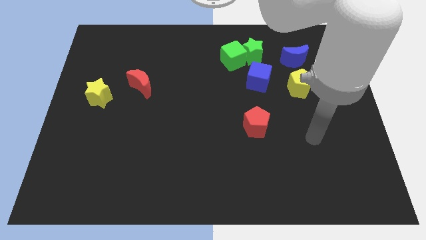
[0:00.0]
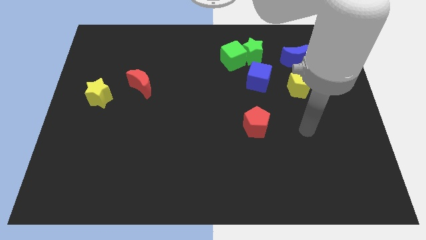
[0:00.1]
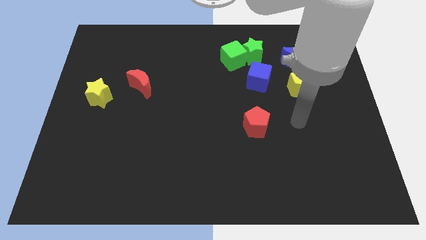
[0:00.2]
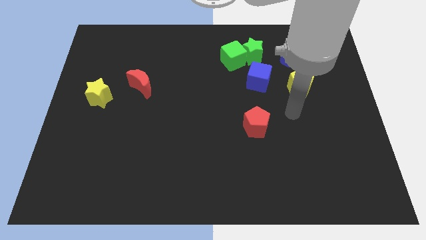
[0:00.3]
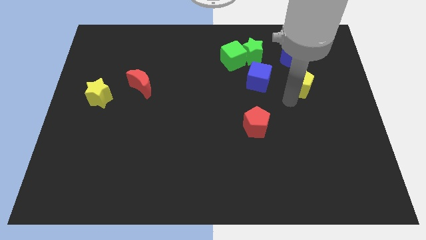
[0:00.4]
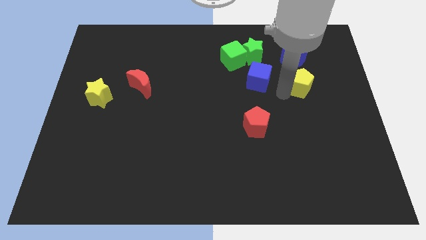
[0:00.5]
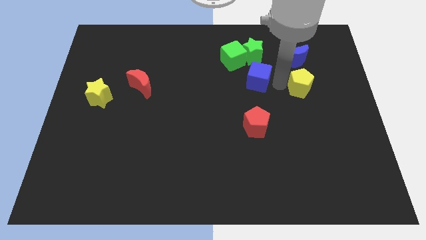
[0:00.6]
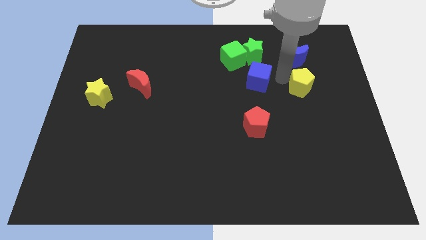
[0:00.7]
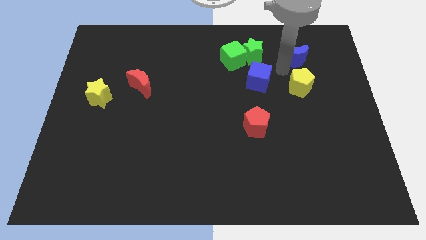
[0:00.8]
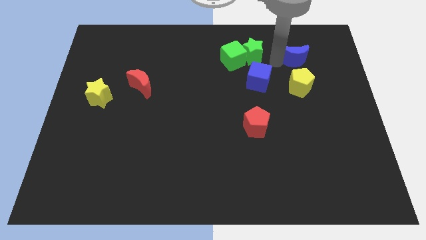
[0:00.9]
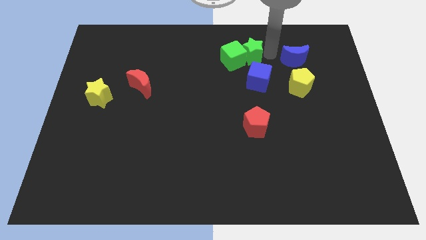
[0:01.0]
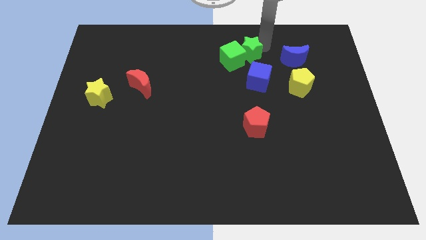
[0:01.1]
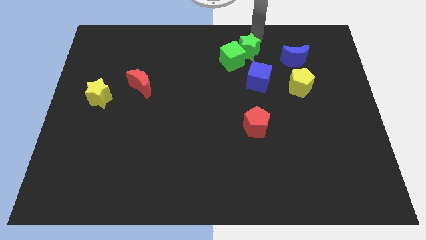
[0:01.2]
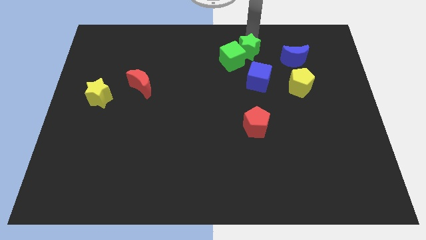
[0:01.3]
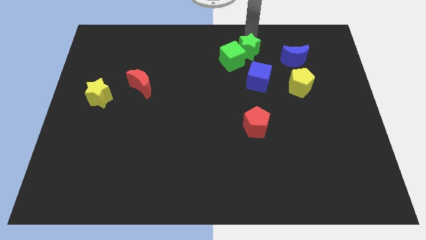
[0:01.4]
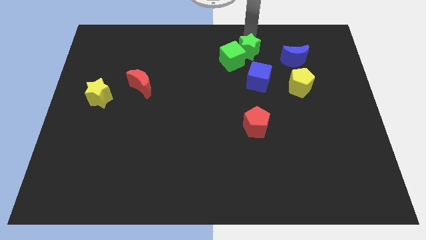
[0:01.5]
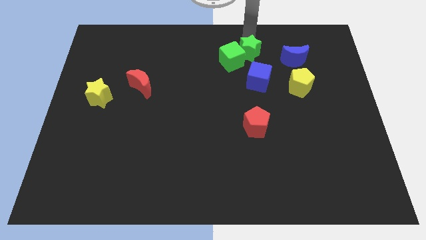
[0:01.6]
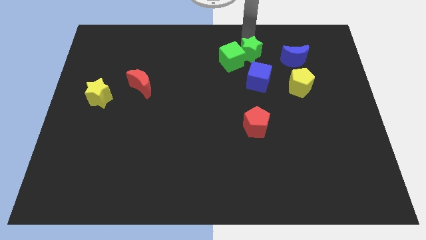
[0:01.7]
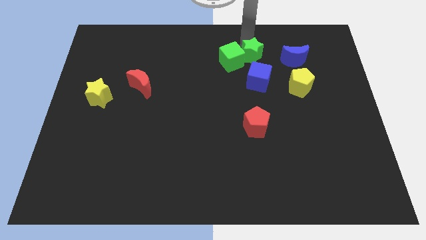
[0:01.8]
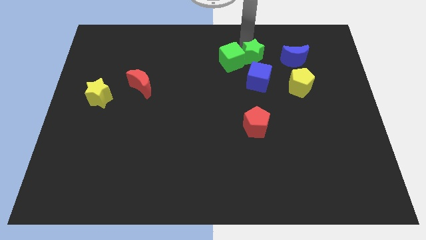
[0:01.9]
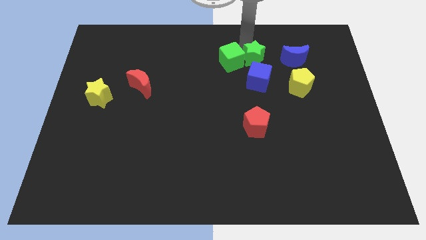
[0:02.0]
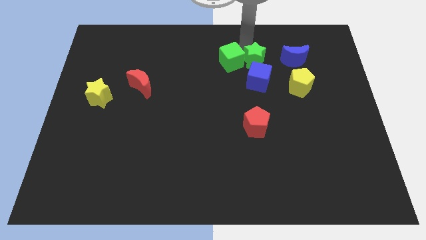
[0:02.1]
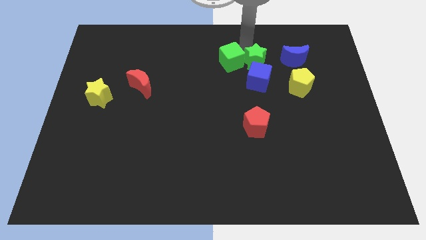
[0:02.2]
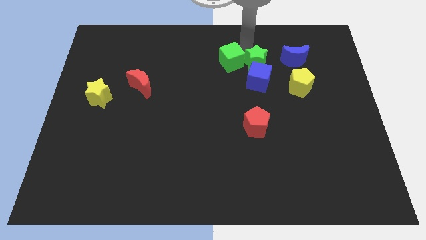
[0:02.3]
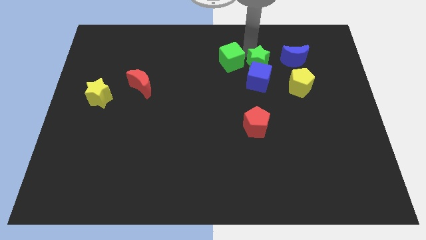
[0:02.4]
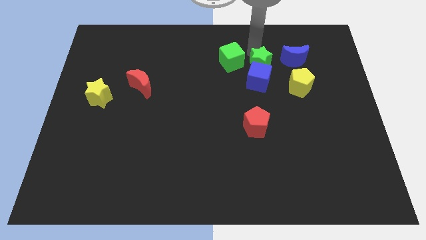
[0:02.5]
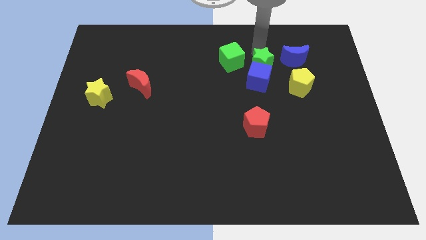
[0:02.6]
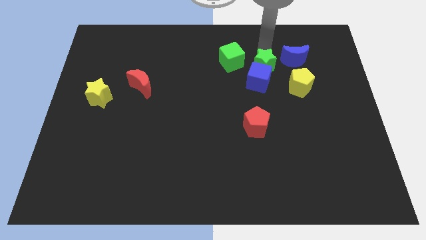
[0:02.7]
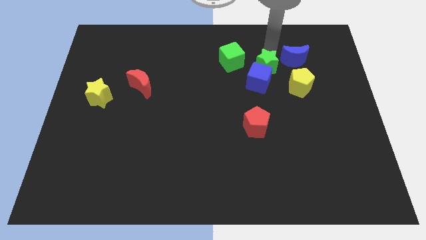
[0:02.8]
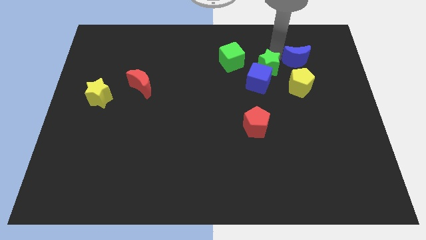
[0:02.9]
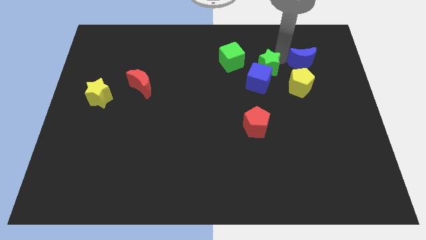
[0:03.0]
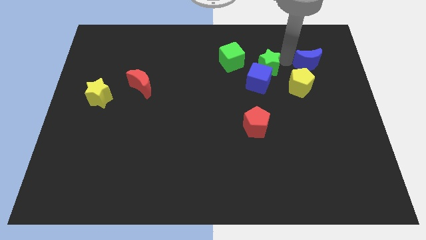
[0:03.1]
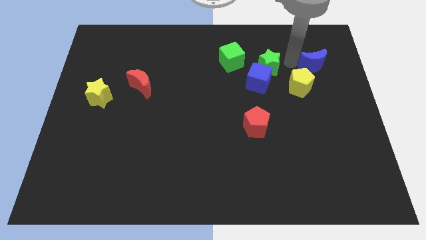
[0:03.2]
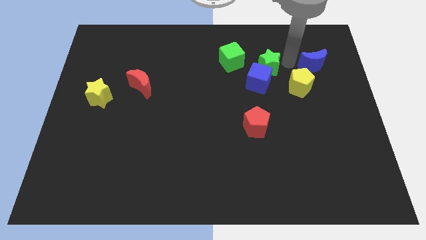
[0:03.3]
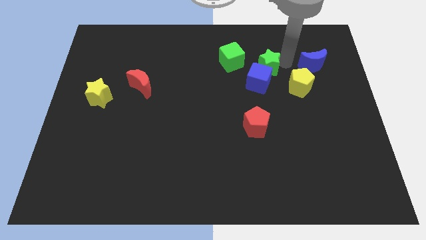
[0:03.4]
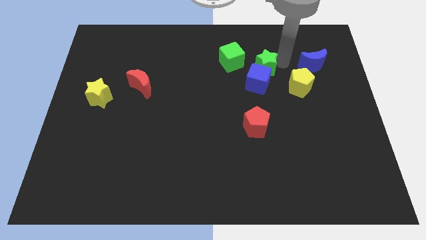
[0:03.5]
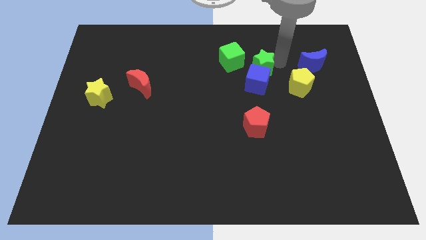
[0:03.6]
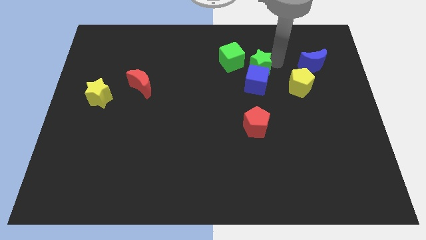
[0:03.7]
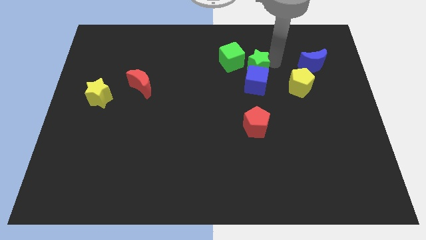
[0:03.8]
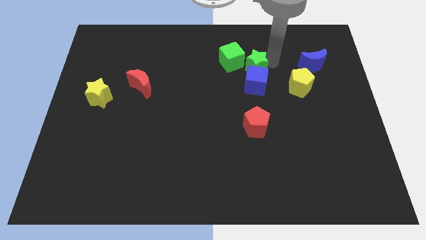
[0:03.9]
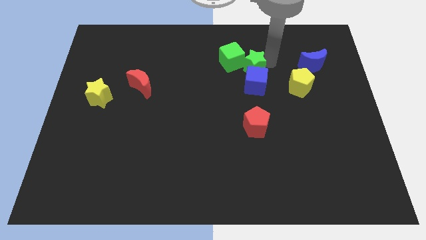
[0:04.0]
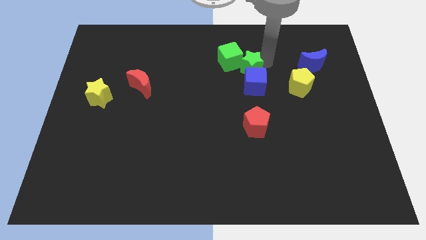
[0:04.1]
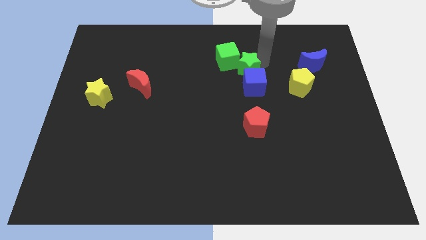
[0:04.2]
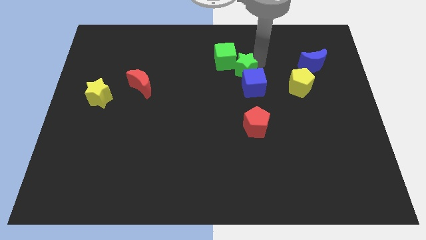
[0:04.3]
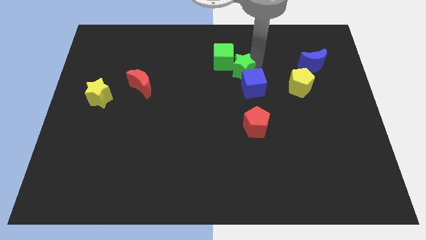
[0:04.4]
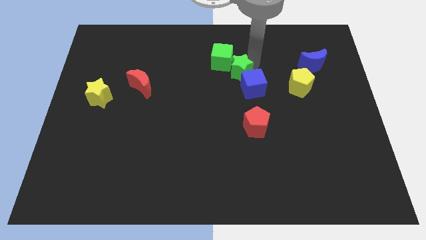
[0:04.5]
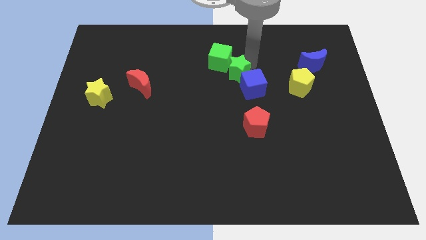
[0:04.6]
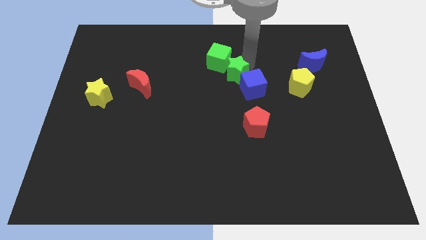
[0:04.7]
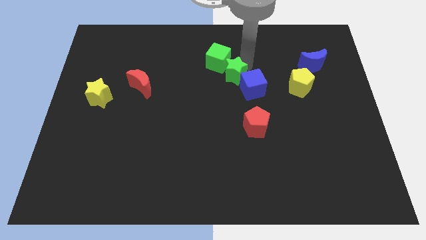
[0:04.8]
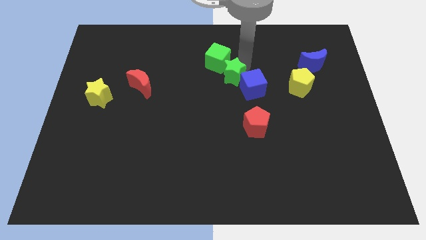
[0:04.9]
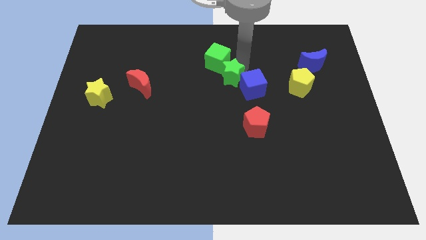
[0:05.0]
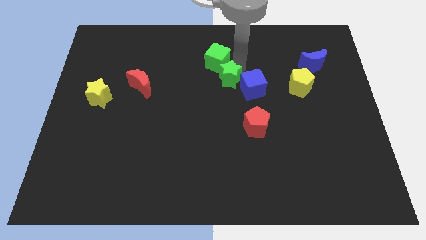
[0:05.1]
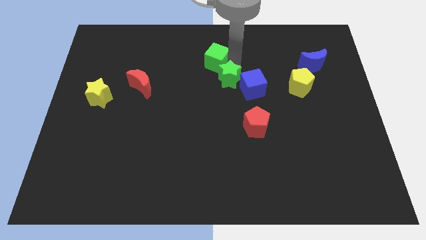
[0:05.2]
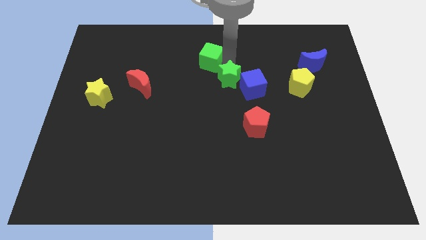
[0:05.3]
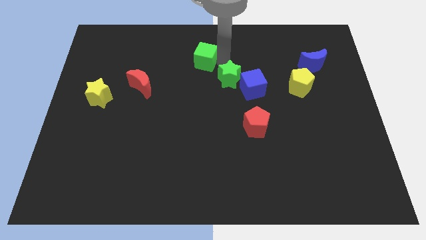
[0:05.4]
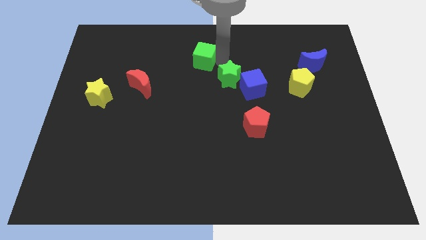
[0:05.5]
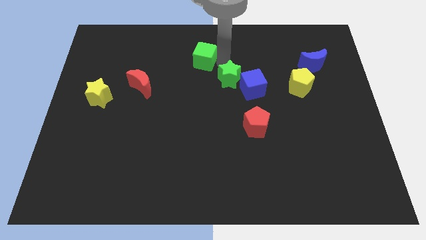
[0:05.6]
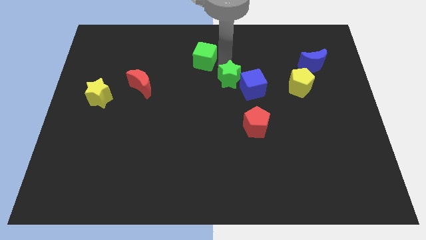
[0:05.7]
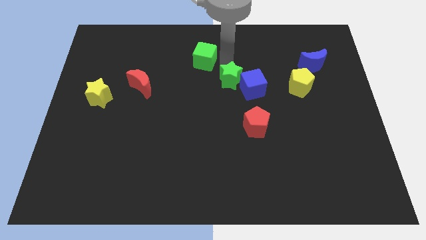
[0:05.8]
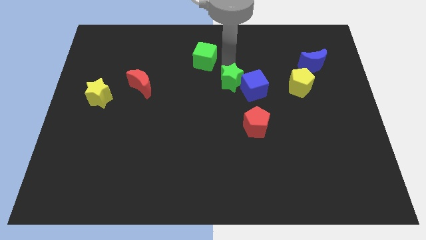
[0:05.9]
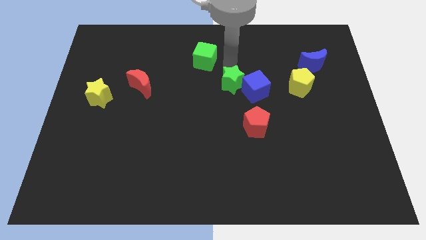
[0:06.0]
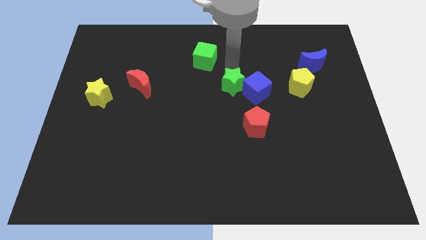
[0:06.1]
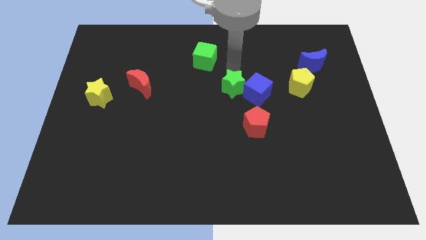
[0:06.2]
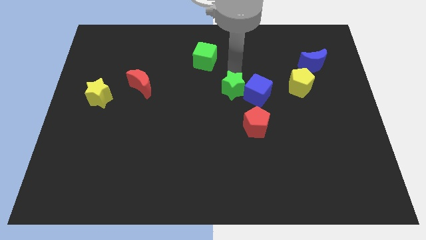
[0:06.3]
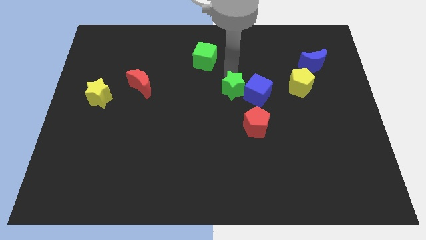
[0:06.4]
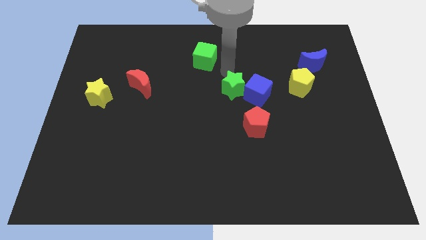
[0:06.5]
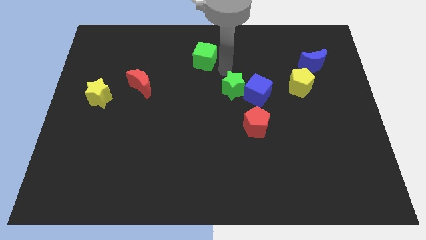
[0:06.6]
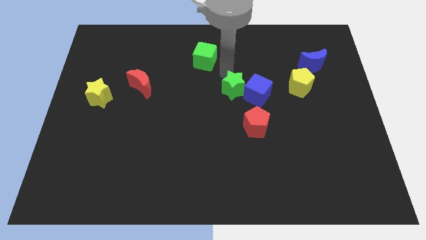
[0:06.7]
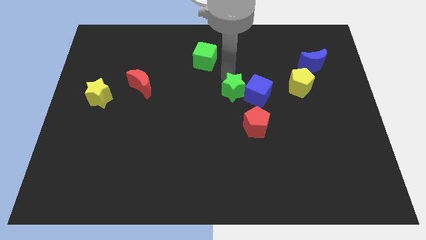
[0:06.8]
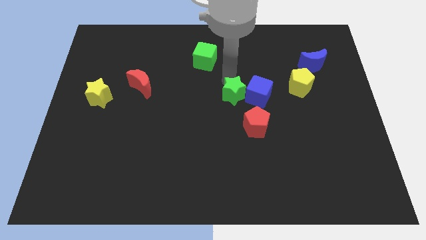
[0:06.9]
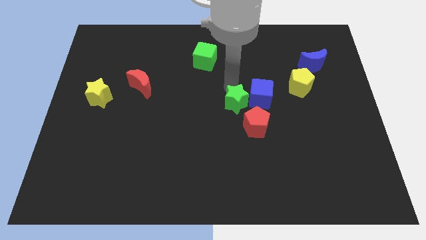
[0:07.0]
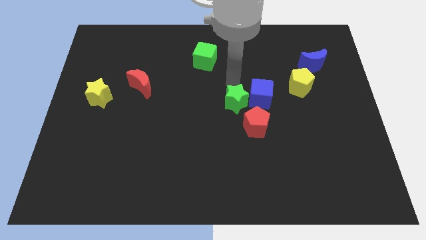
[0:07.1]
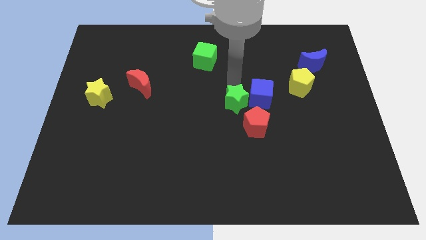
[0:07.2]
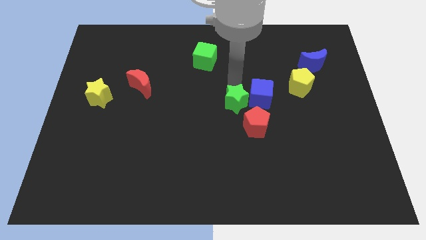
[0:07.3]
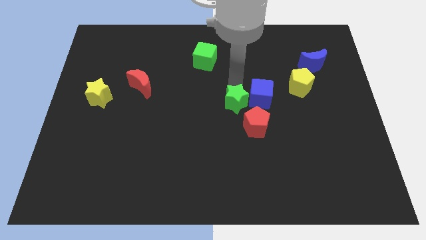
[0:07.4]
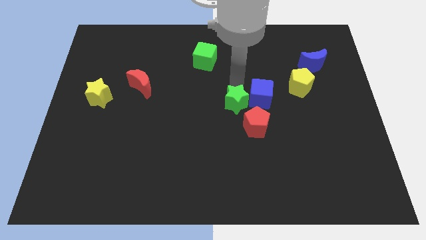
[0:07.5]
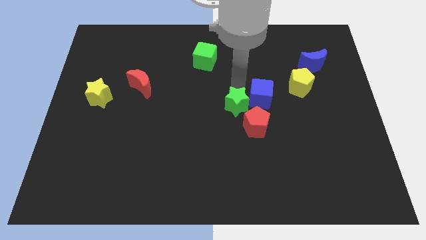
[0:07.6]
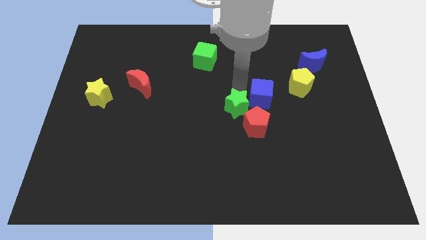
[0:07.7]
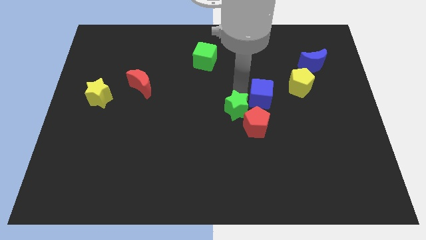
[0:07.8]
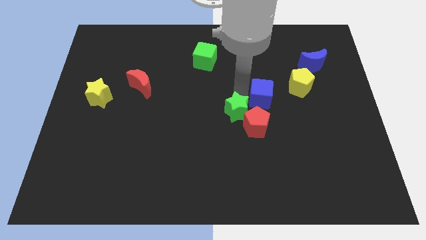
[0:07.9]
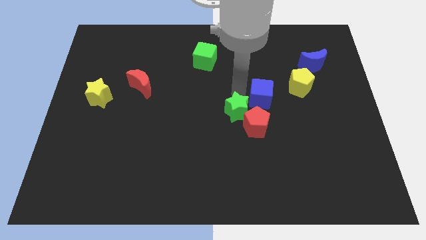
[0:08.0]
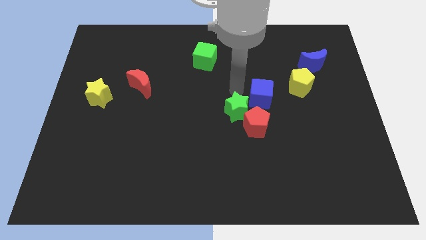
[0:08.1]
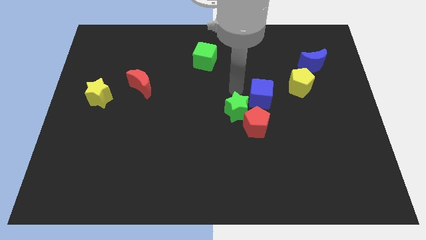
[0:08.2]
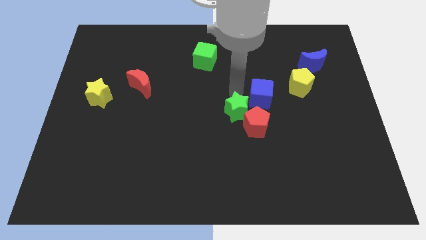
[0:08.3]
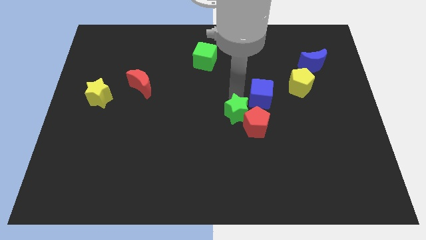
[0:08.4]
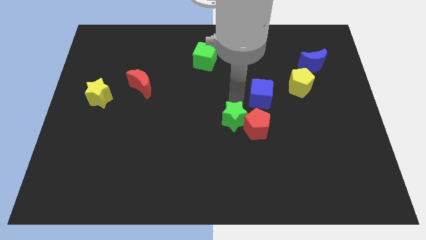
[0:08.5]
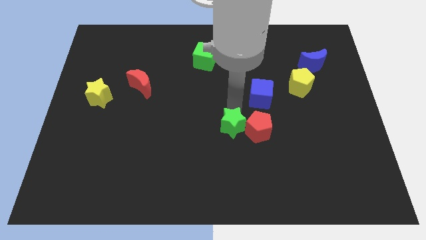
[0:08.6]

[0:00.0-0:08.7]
slide the green star to the bottom left of the red pentagon
